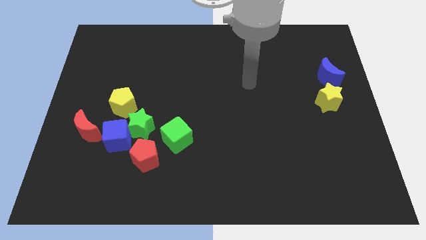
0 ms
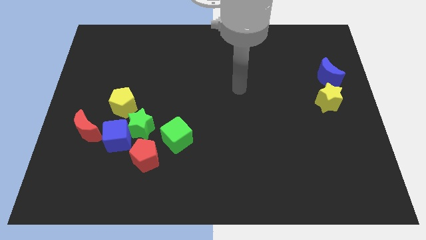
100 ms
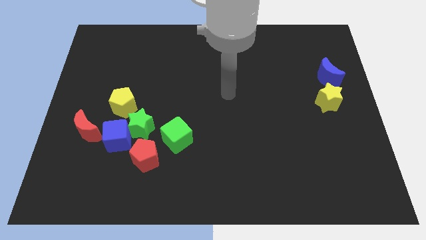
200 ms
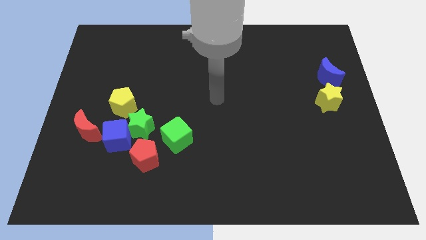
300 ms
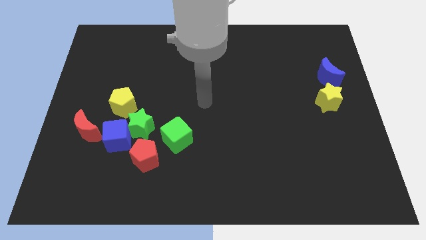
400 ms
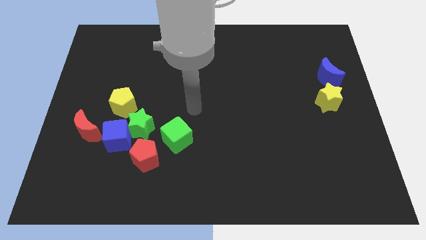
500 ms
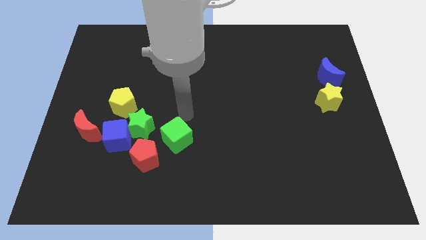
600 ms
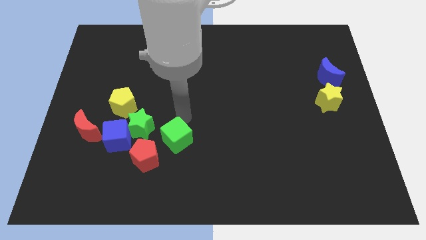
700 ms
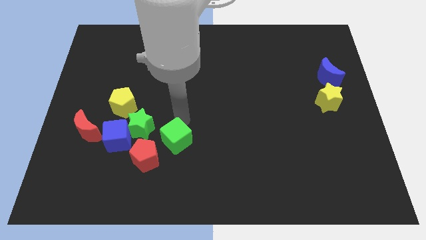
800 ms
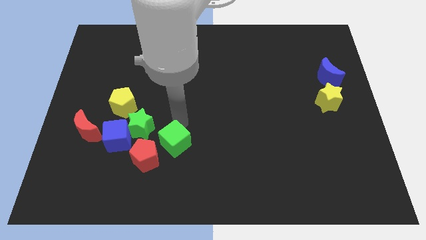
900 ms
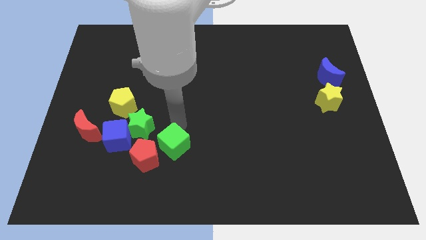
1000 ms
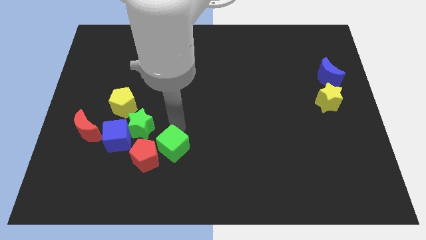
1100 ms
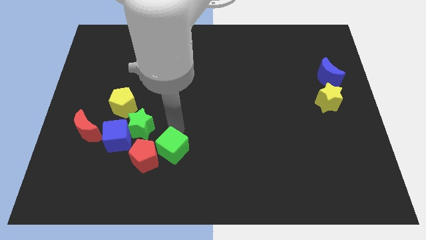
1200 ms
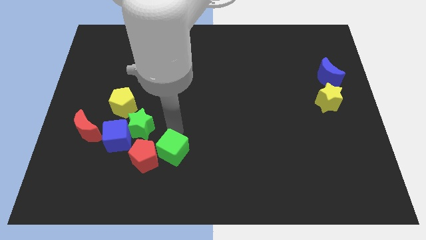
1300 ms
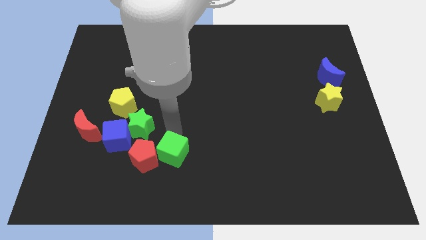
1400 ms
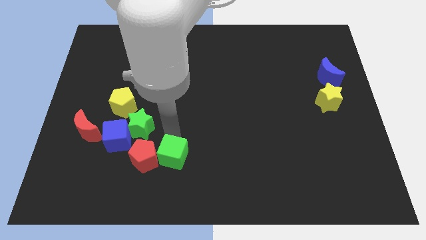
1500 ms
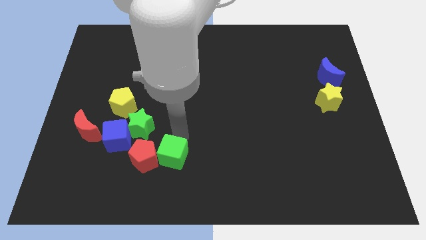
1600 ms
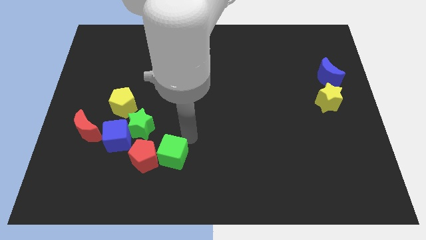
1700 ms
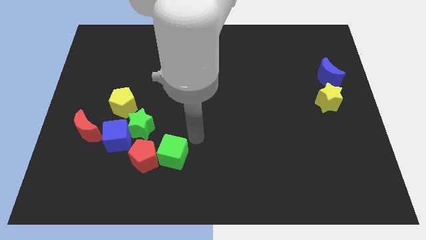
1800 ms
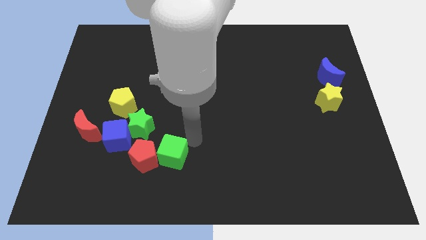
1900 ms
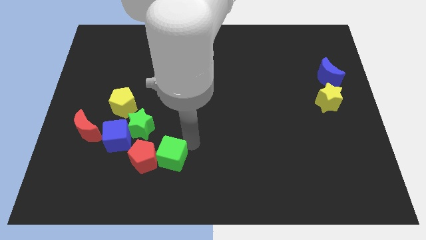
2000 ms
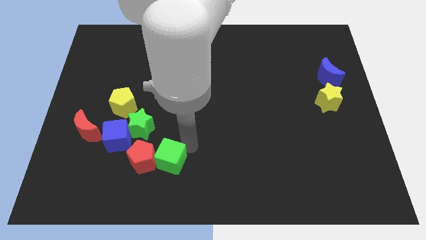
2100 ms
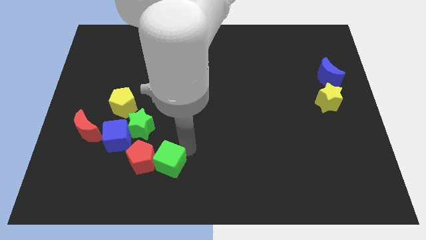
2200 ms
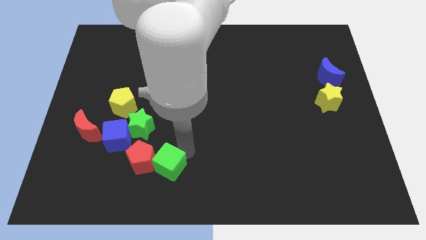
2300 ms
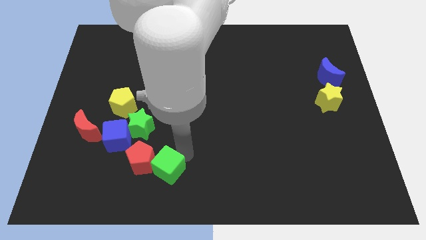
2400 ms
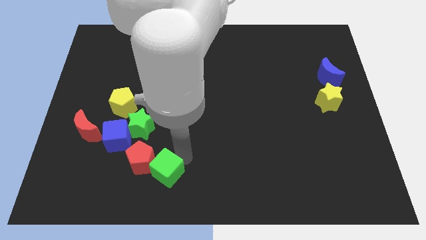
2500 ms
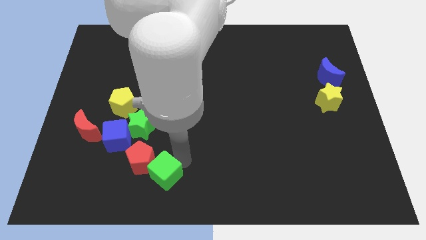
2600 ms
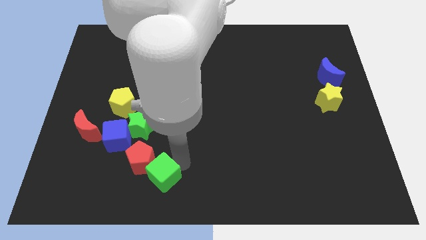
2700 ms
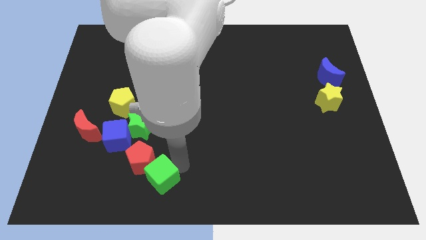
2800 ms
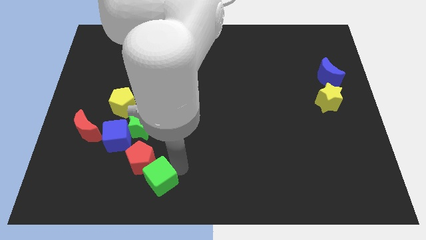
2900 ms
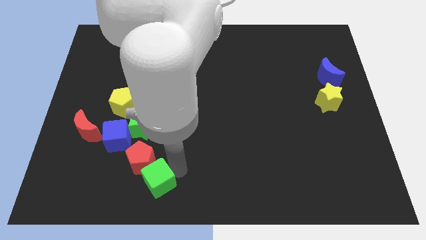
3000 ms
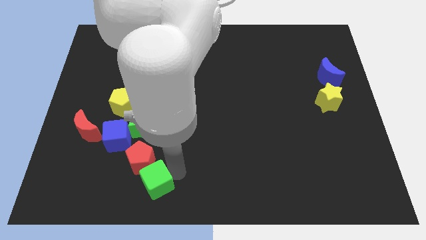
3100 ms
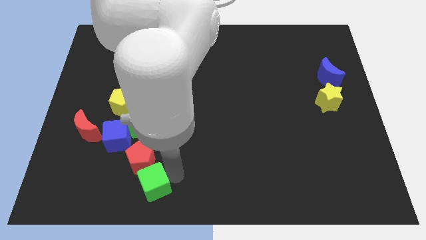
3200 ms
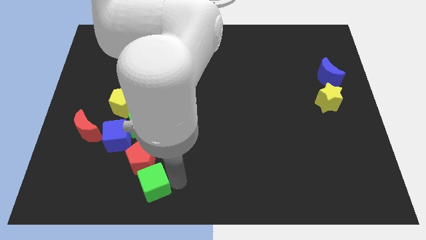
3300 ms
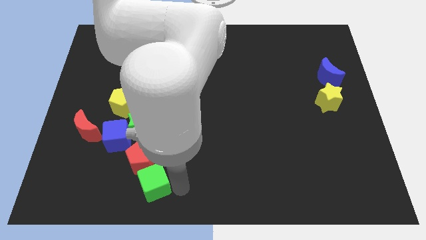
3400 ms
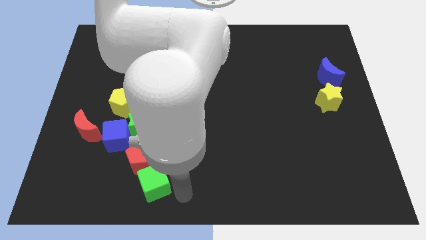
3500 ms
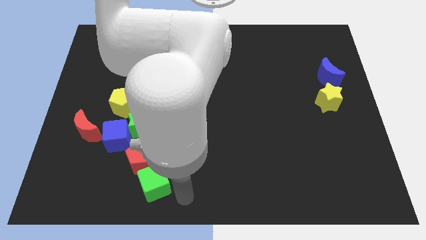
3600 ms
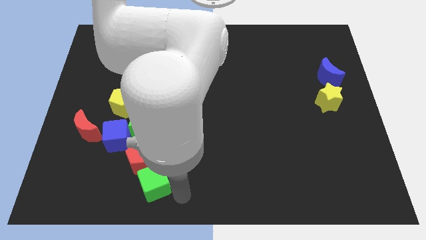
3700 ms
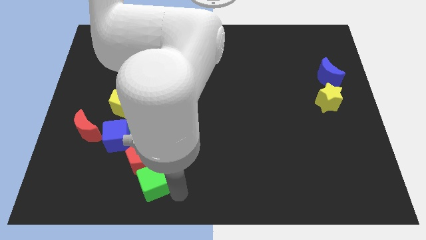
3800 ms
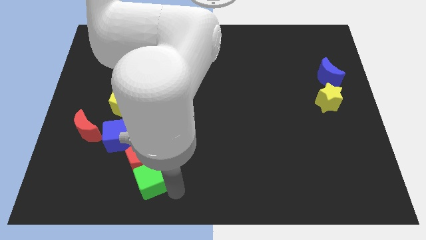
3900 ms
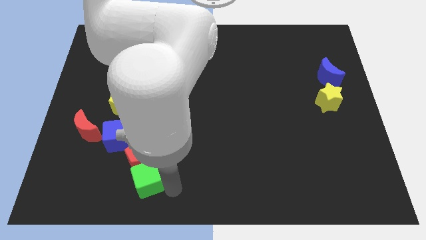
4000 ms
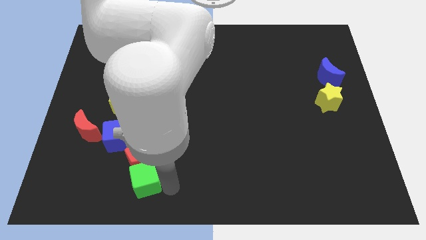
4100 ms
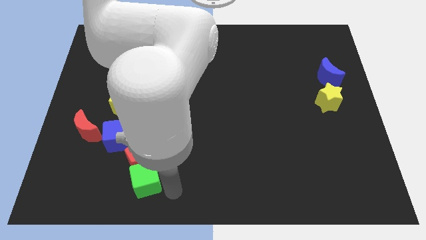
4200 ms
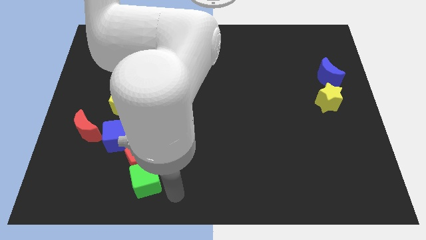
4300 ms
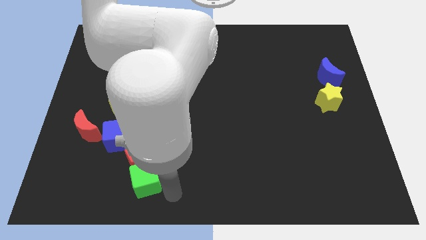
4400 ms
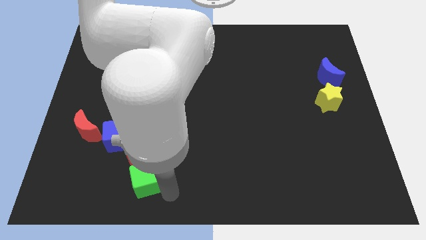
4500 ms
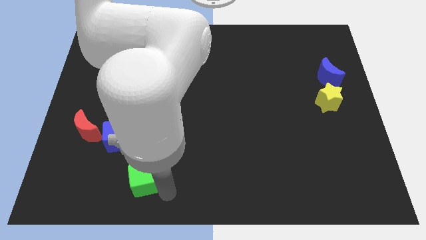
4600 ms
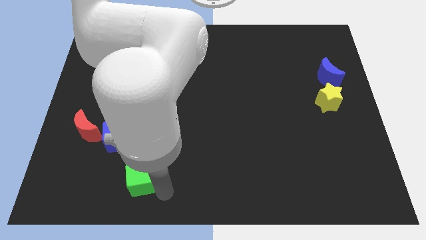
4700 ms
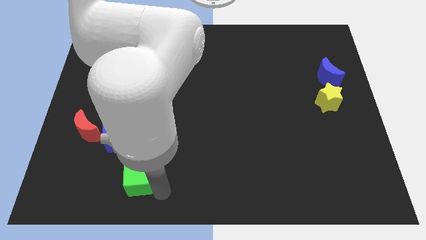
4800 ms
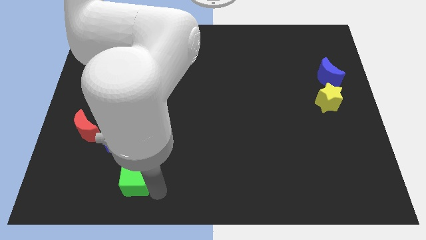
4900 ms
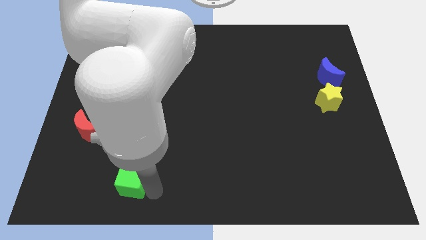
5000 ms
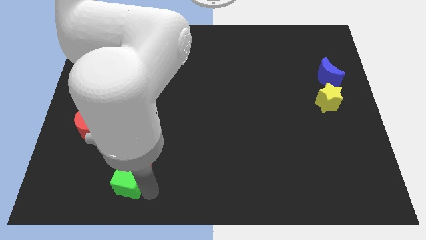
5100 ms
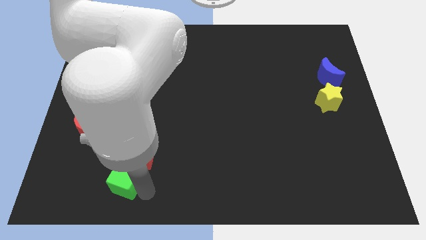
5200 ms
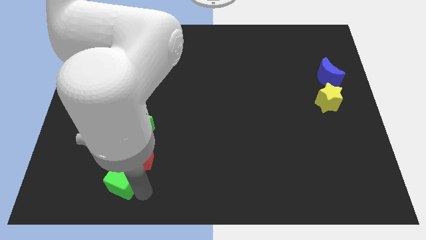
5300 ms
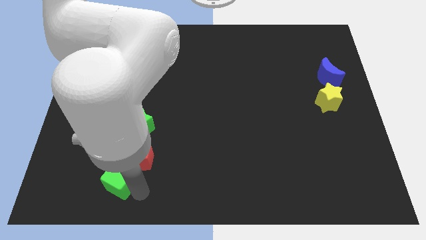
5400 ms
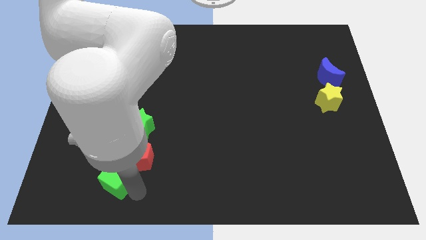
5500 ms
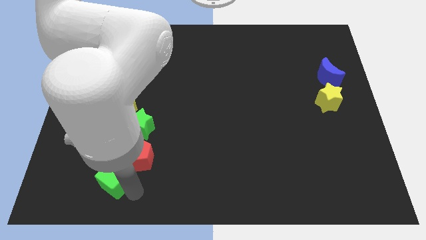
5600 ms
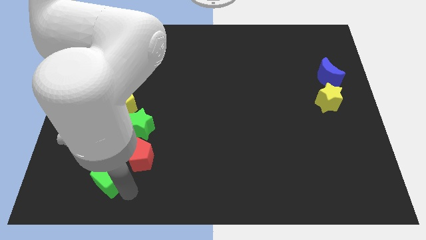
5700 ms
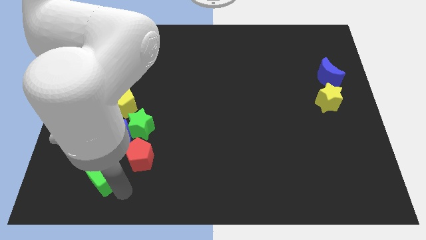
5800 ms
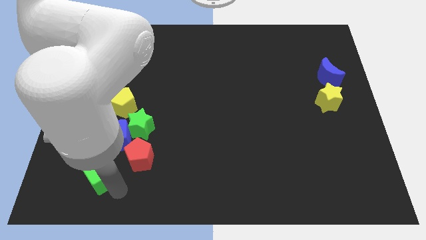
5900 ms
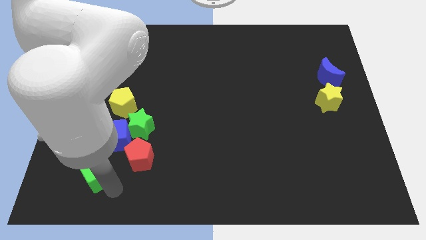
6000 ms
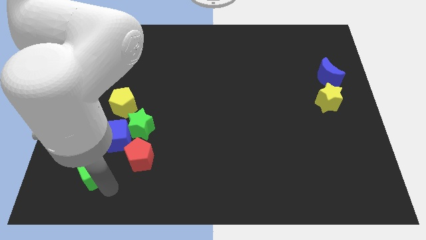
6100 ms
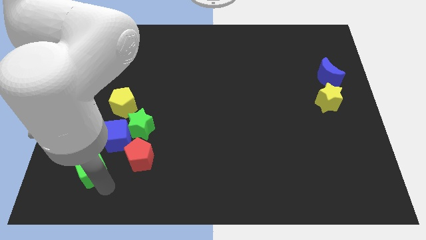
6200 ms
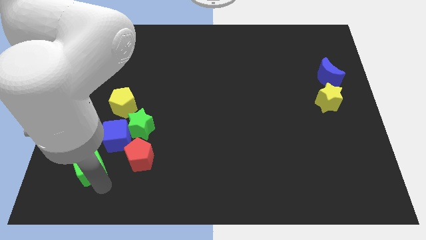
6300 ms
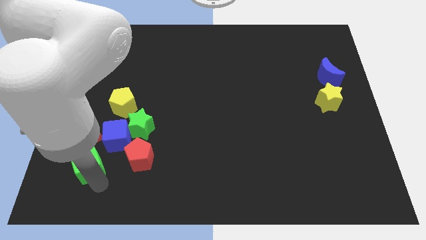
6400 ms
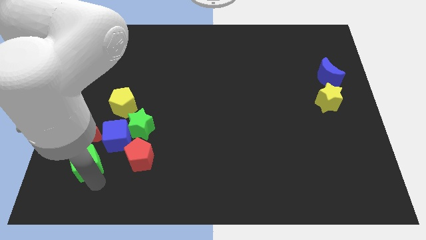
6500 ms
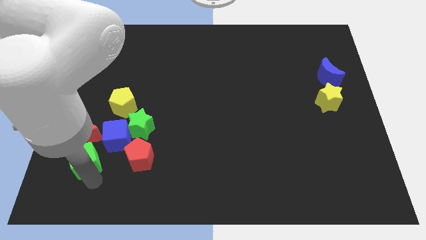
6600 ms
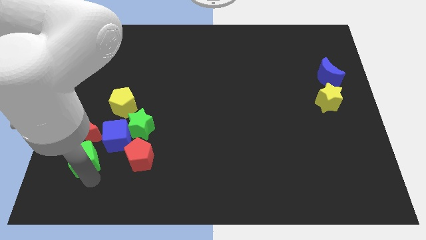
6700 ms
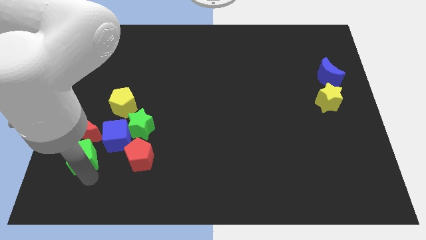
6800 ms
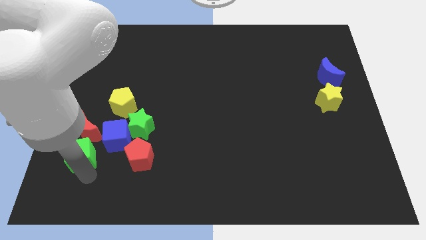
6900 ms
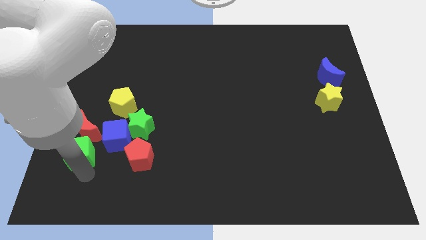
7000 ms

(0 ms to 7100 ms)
slide the green cube to the red moon

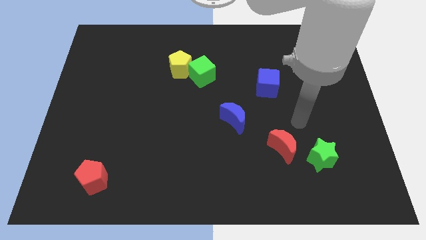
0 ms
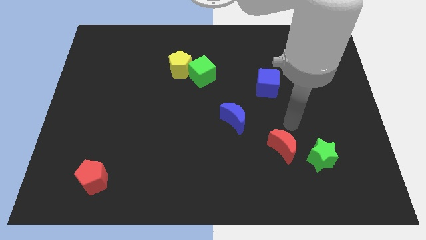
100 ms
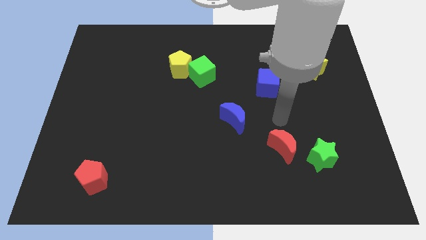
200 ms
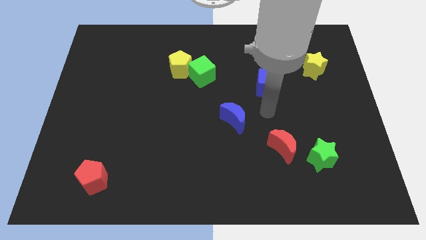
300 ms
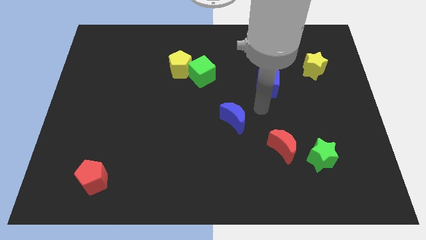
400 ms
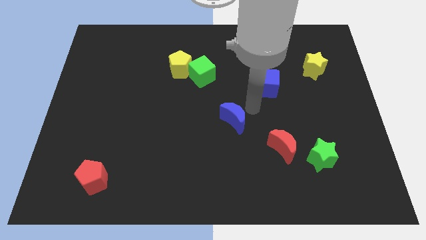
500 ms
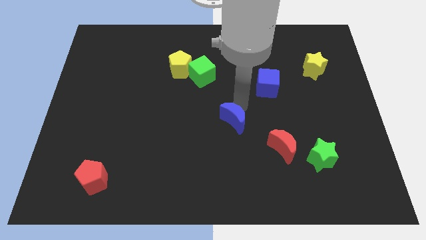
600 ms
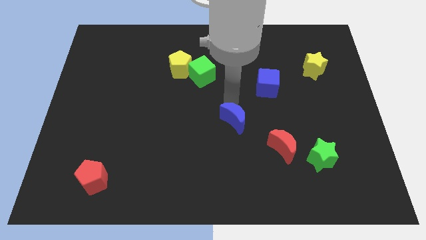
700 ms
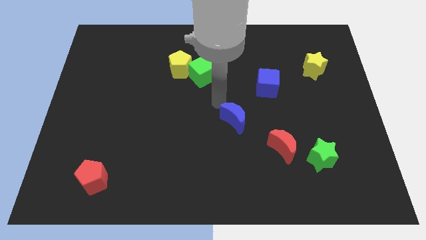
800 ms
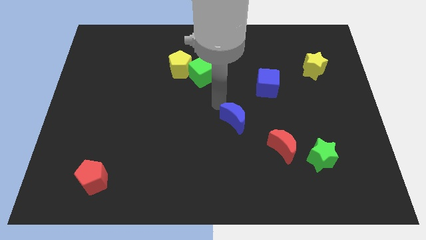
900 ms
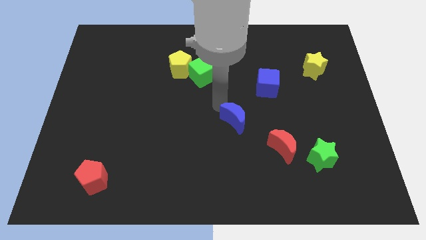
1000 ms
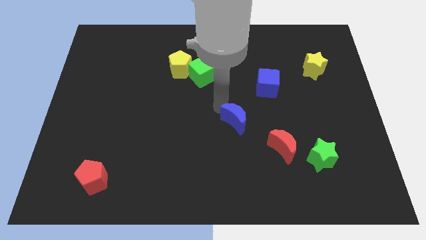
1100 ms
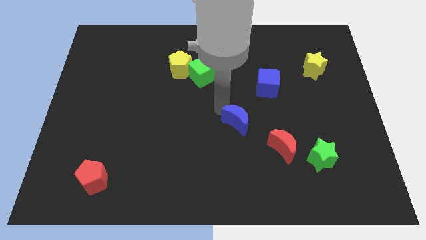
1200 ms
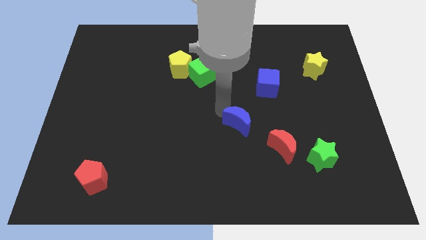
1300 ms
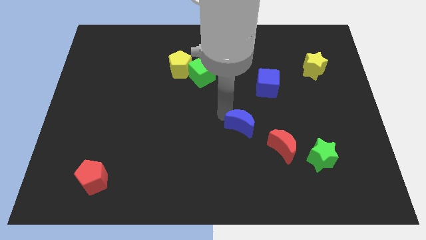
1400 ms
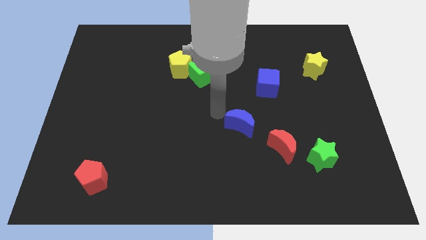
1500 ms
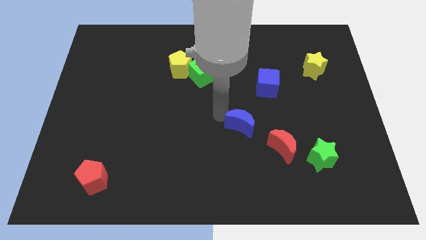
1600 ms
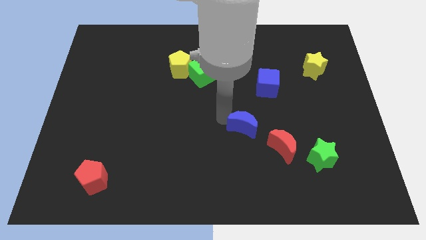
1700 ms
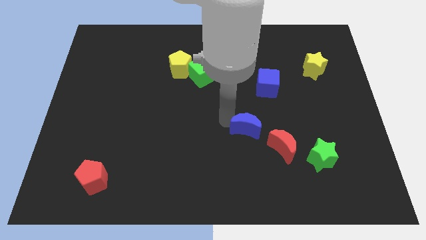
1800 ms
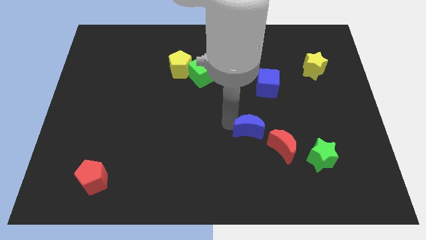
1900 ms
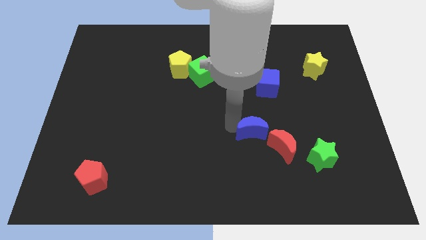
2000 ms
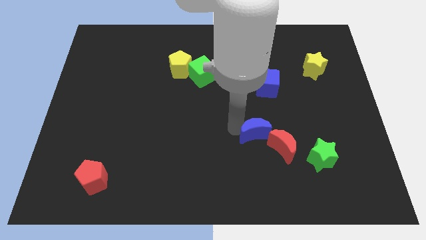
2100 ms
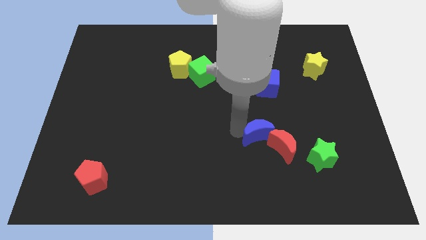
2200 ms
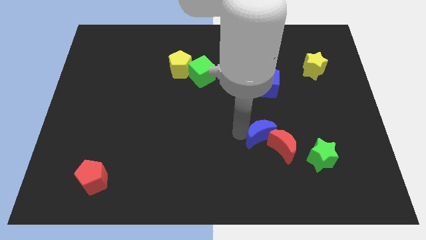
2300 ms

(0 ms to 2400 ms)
put the blue moon next to the red moon
